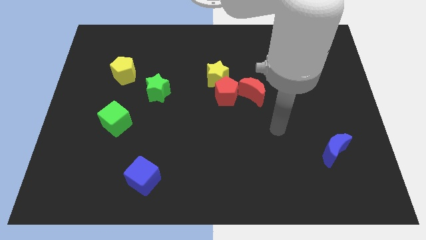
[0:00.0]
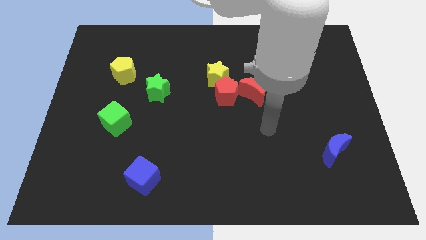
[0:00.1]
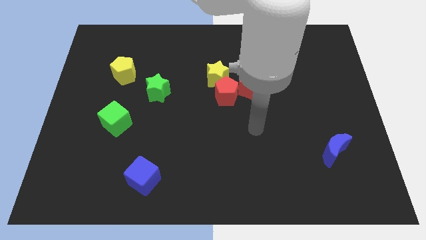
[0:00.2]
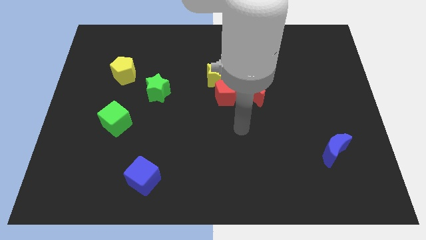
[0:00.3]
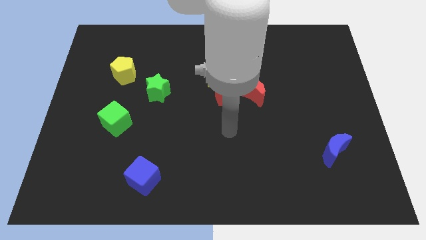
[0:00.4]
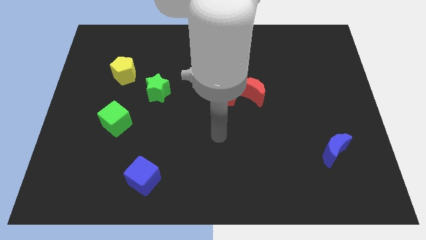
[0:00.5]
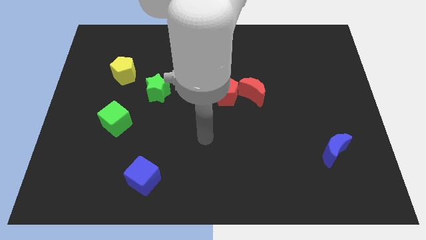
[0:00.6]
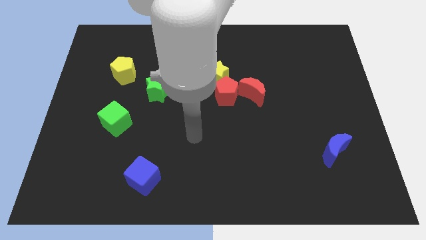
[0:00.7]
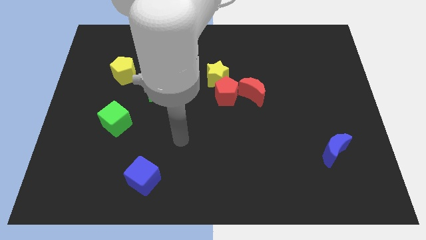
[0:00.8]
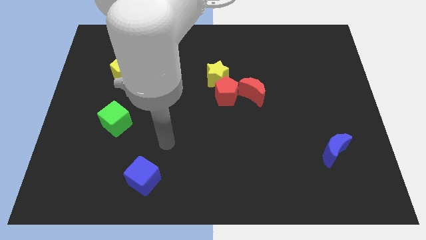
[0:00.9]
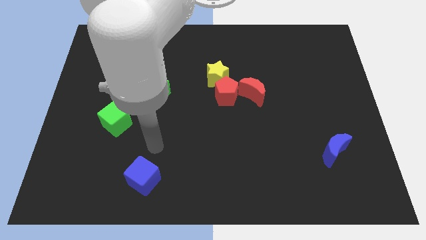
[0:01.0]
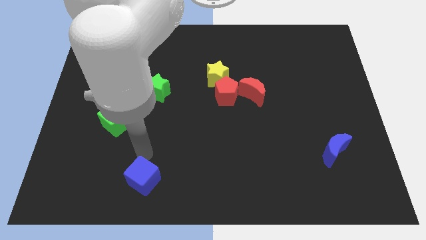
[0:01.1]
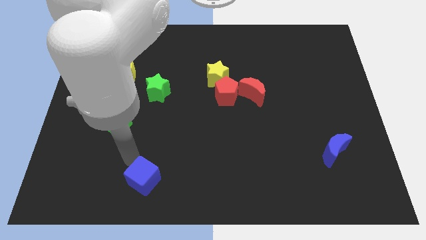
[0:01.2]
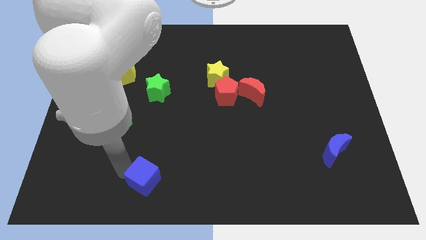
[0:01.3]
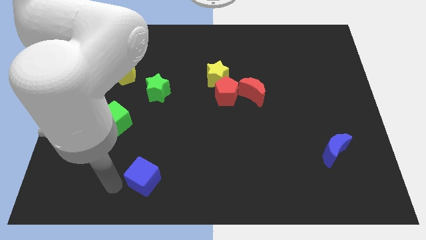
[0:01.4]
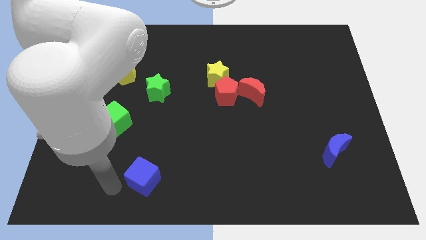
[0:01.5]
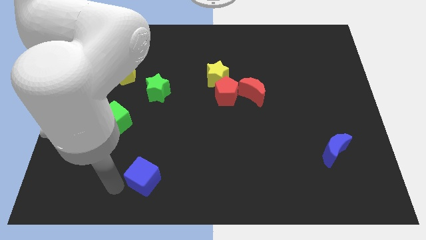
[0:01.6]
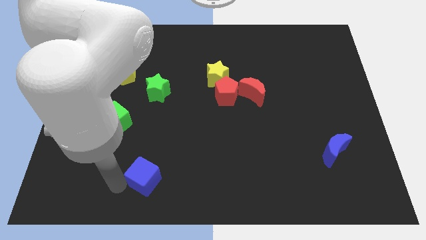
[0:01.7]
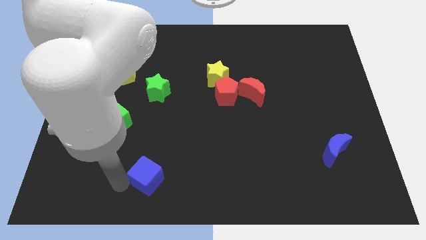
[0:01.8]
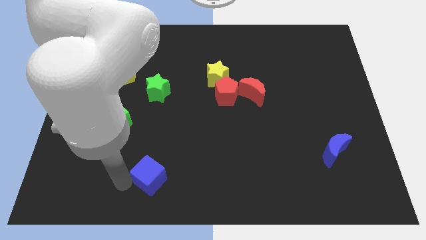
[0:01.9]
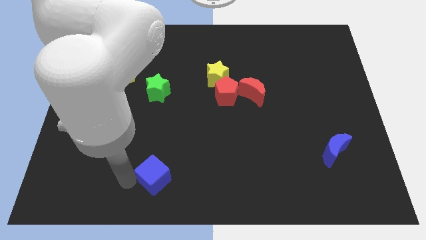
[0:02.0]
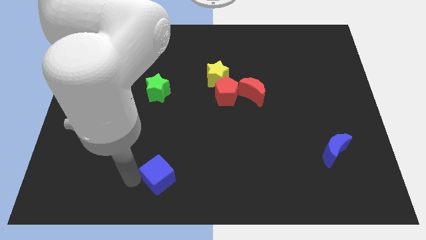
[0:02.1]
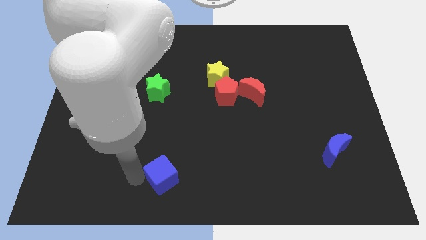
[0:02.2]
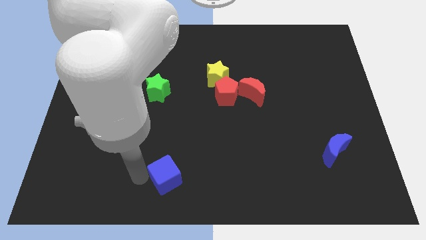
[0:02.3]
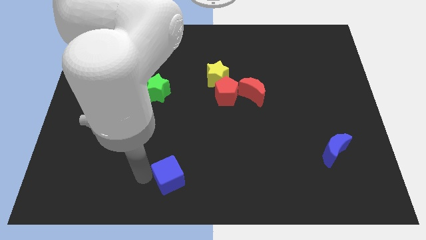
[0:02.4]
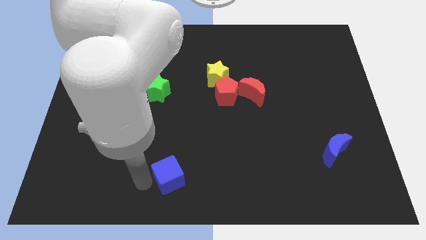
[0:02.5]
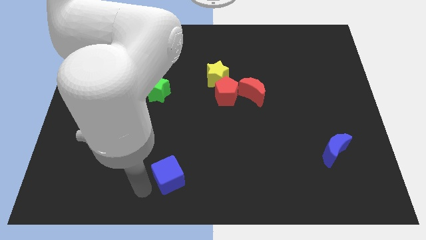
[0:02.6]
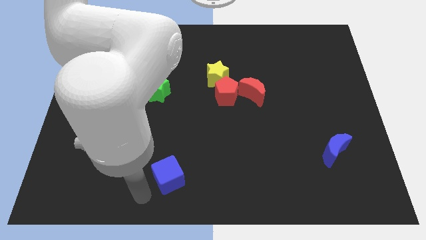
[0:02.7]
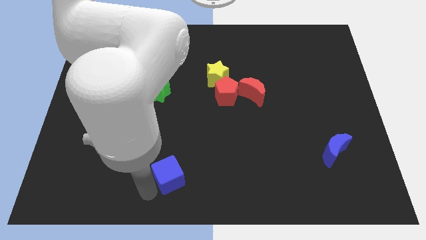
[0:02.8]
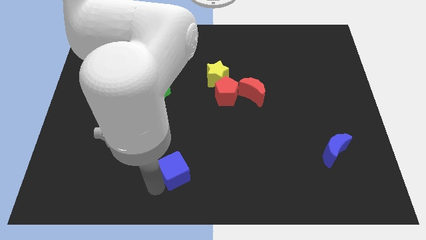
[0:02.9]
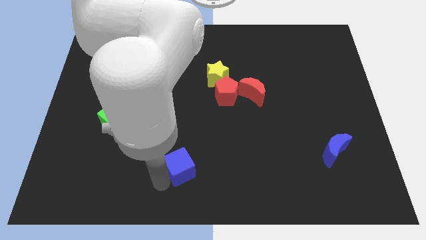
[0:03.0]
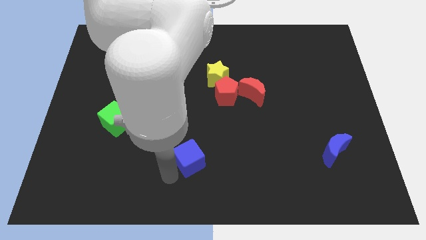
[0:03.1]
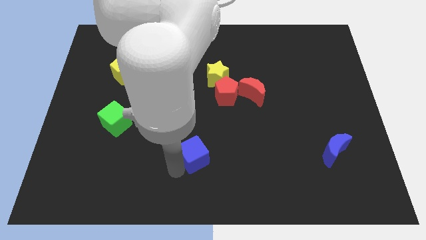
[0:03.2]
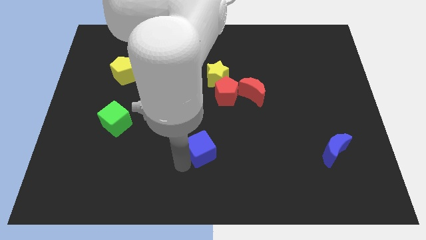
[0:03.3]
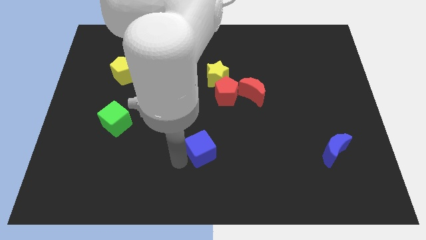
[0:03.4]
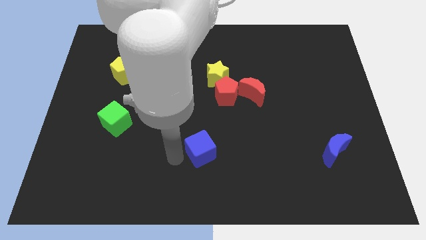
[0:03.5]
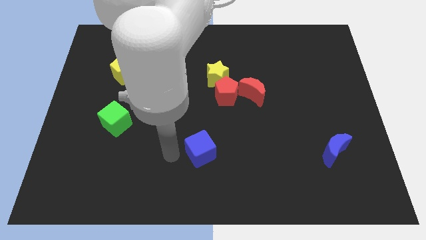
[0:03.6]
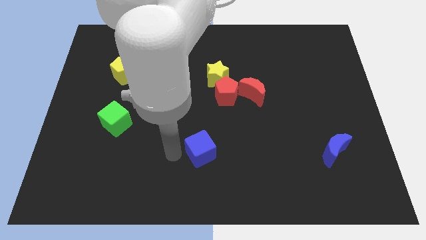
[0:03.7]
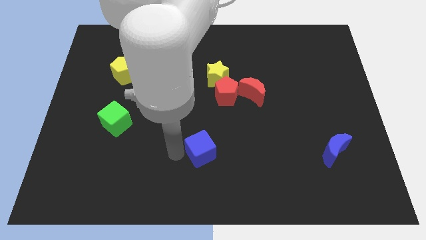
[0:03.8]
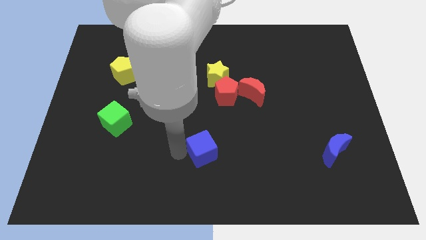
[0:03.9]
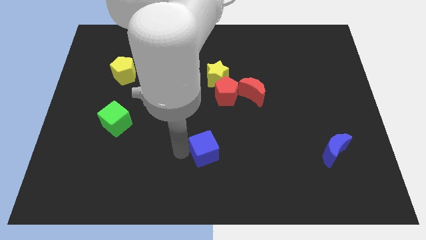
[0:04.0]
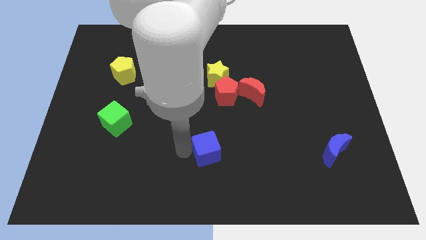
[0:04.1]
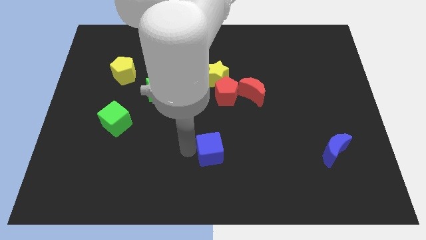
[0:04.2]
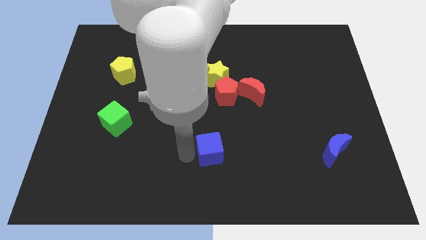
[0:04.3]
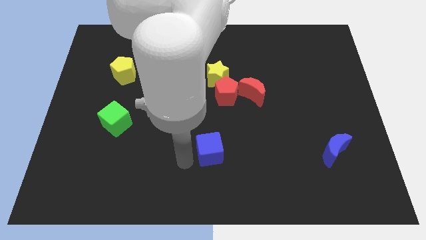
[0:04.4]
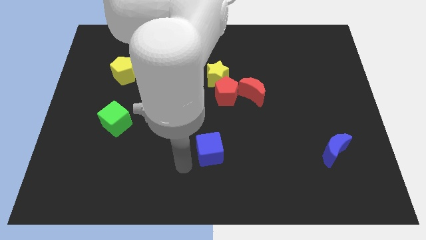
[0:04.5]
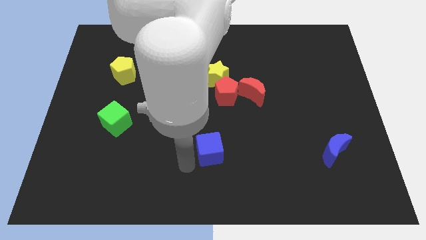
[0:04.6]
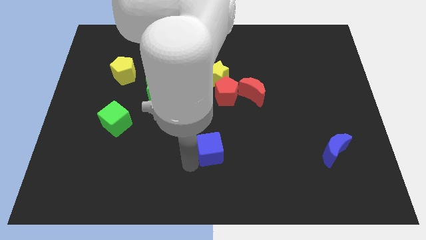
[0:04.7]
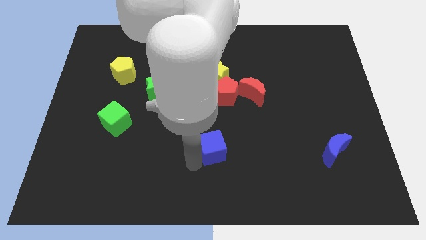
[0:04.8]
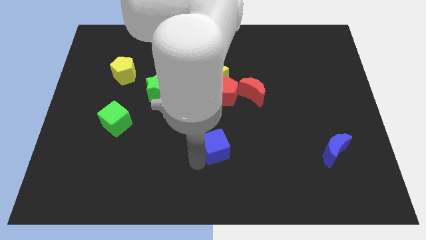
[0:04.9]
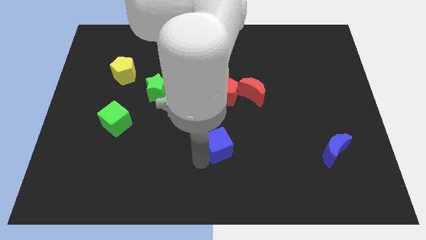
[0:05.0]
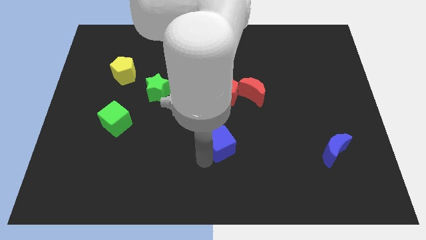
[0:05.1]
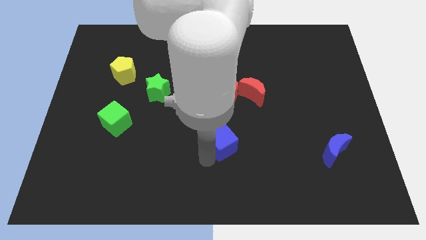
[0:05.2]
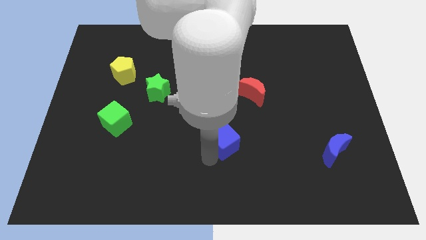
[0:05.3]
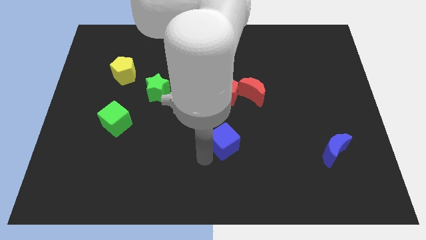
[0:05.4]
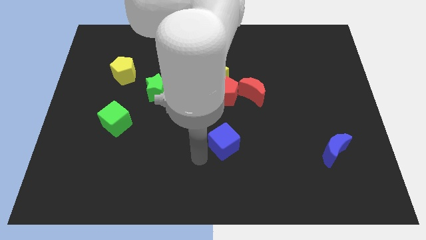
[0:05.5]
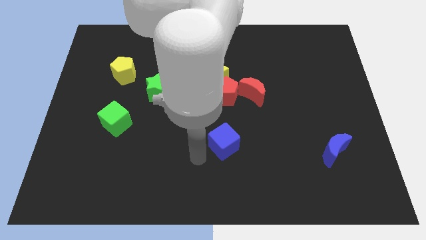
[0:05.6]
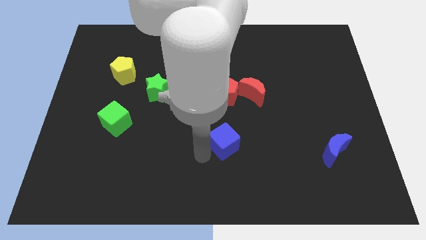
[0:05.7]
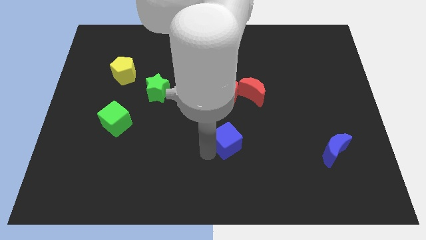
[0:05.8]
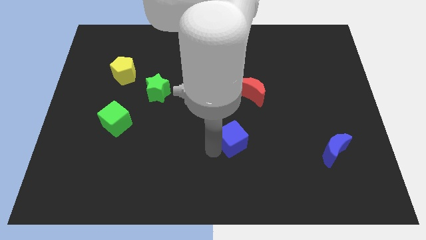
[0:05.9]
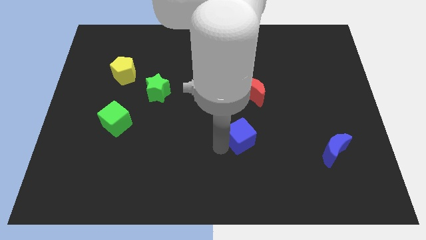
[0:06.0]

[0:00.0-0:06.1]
slide the blue cube to the bottom of the red moon

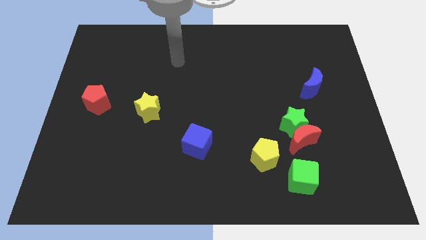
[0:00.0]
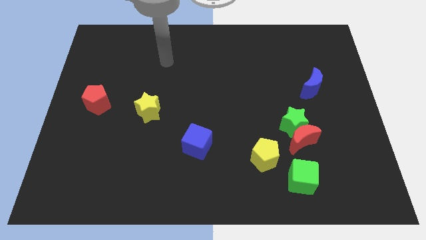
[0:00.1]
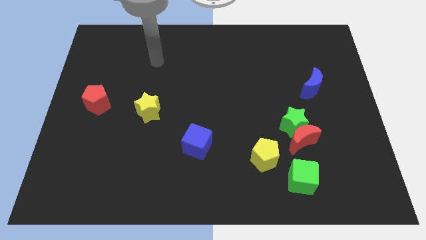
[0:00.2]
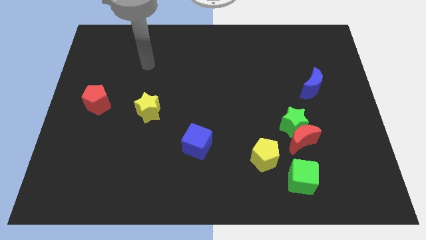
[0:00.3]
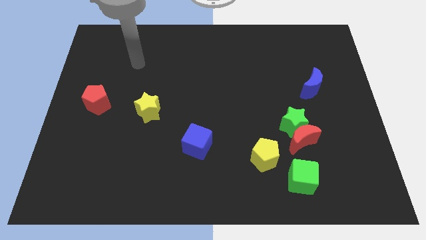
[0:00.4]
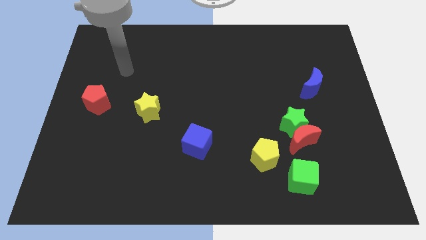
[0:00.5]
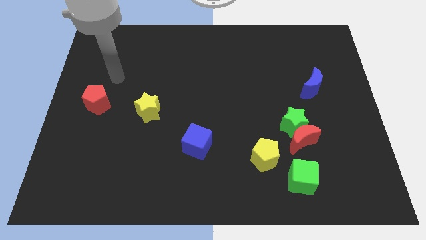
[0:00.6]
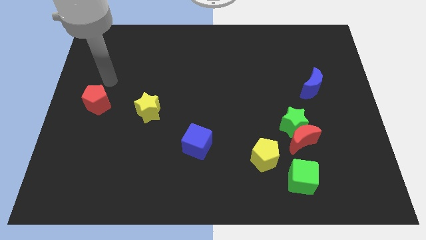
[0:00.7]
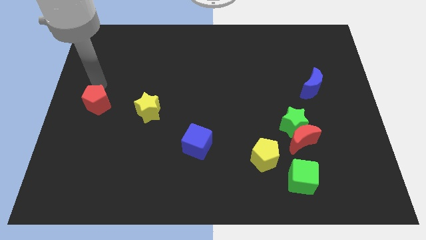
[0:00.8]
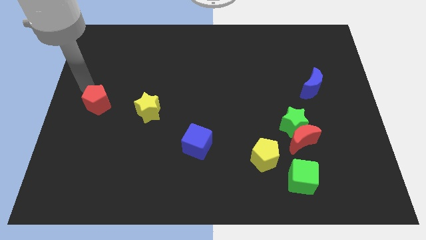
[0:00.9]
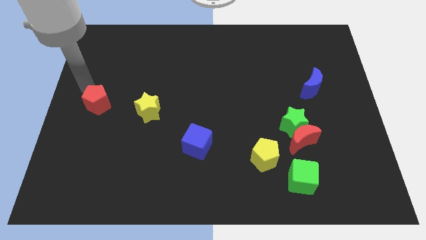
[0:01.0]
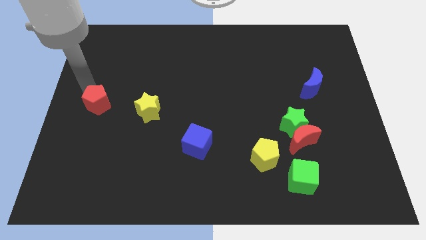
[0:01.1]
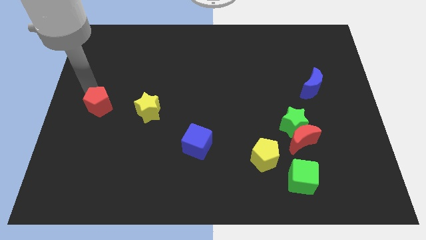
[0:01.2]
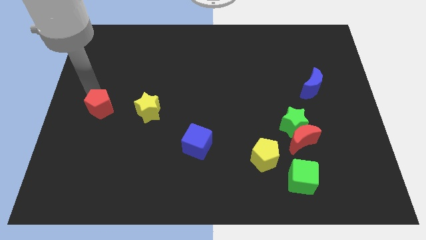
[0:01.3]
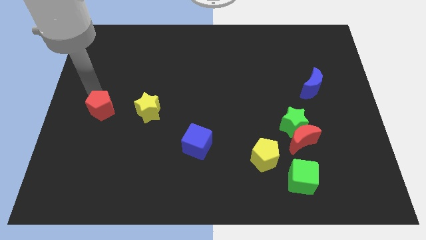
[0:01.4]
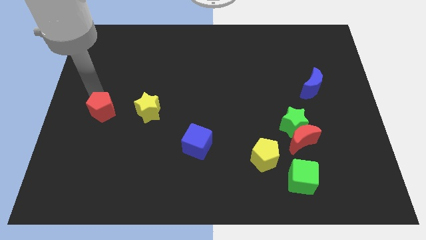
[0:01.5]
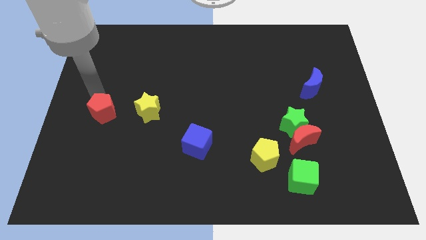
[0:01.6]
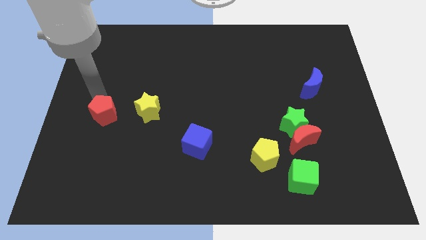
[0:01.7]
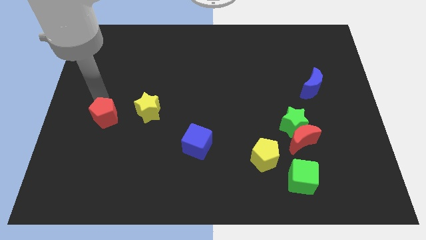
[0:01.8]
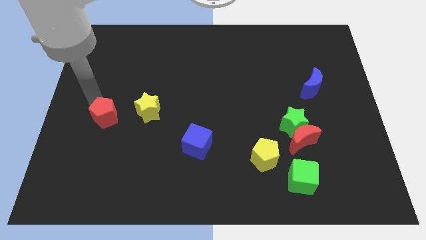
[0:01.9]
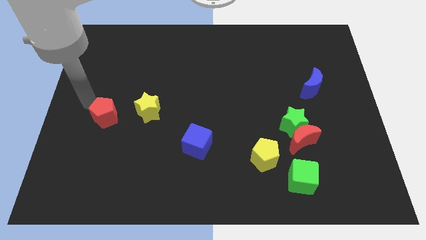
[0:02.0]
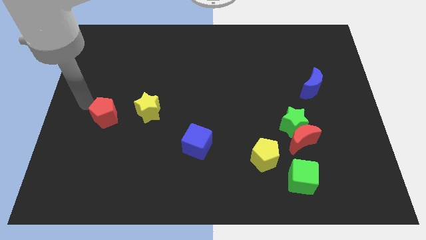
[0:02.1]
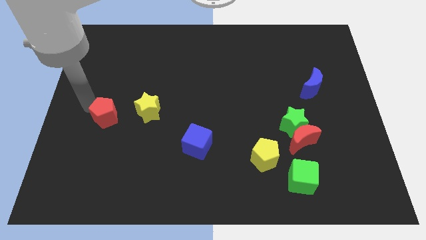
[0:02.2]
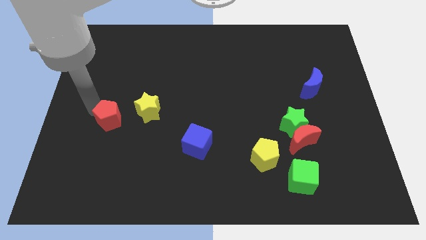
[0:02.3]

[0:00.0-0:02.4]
put the red pentagon diagonally down and to the left of the yellow star
